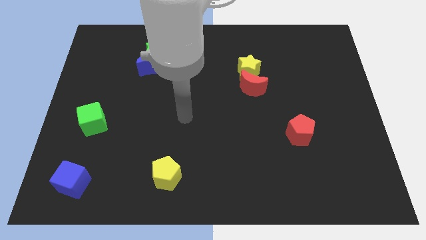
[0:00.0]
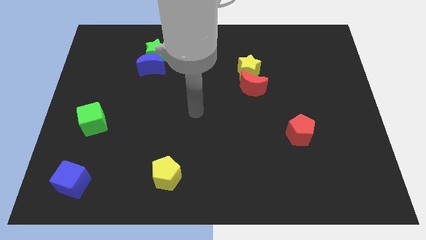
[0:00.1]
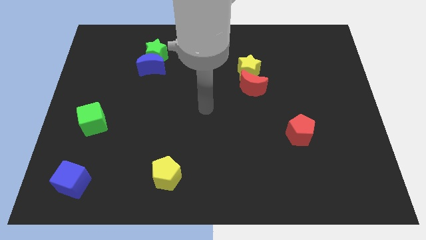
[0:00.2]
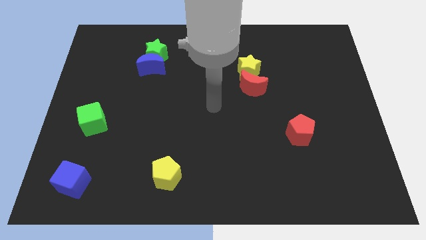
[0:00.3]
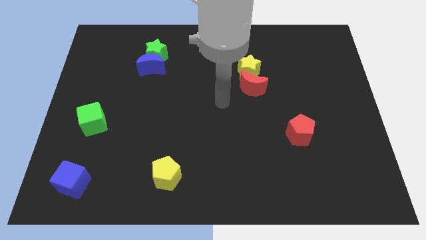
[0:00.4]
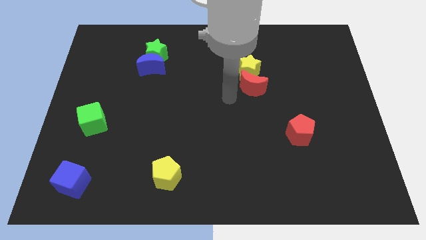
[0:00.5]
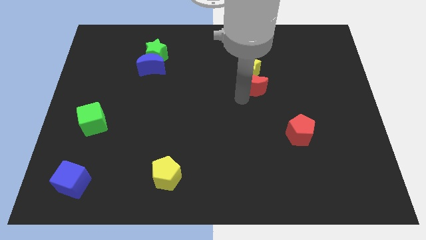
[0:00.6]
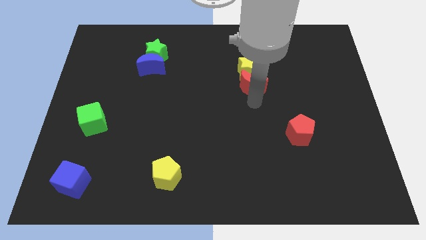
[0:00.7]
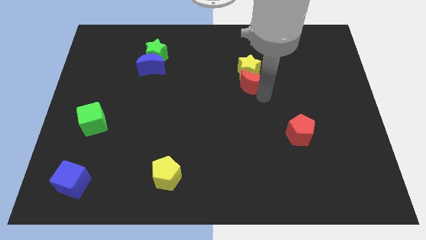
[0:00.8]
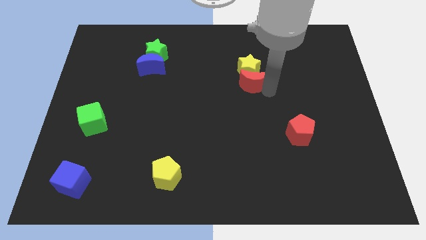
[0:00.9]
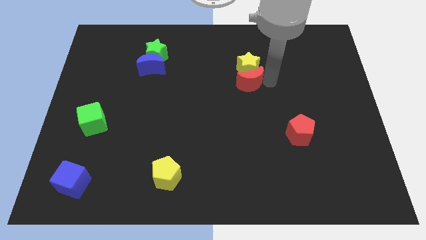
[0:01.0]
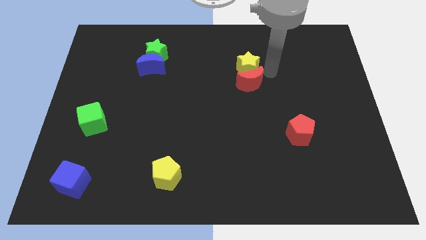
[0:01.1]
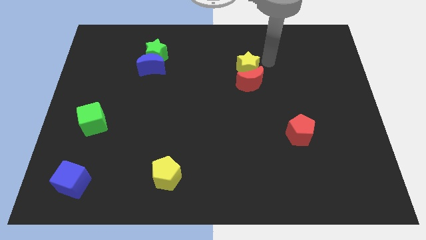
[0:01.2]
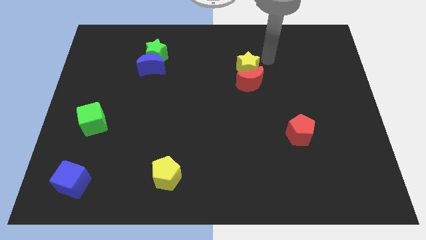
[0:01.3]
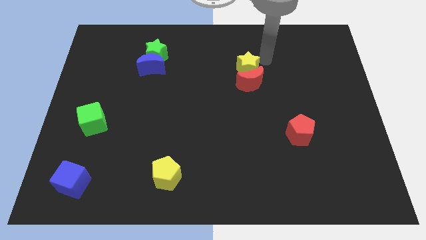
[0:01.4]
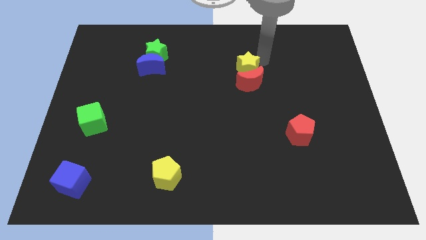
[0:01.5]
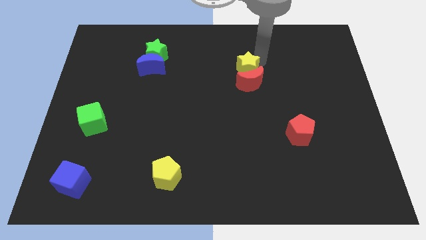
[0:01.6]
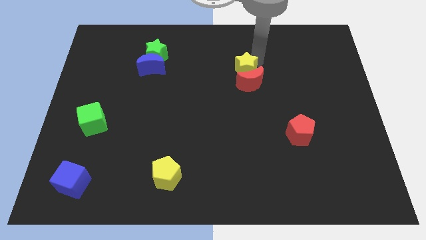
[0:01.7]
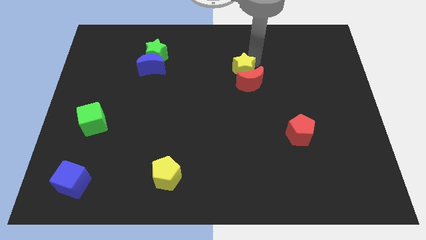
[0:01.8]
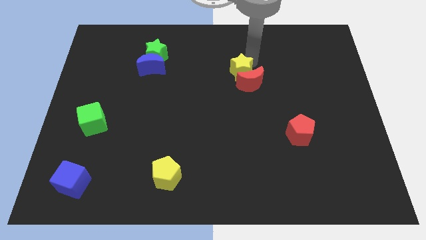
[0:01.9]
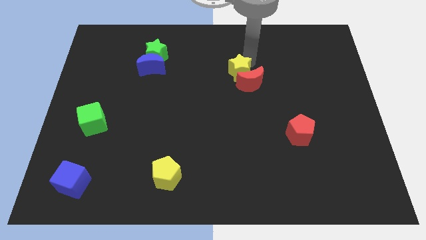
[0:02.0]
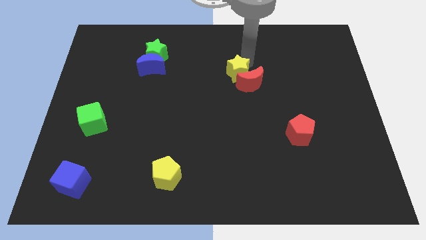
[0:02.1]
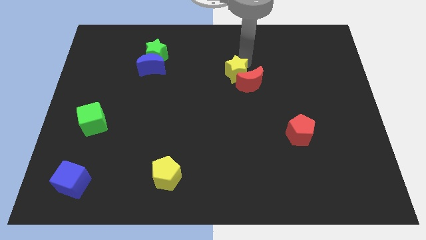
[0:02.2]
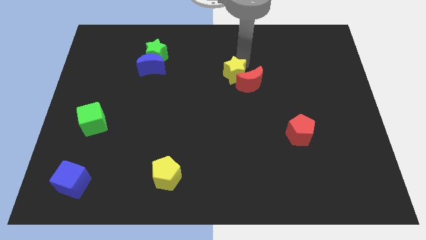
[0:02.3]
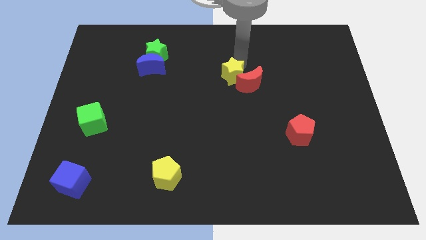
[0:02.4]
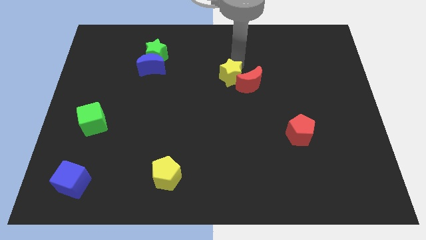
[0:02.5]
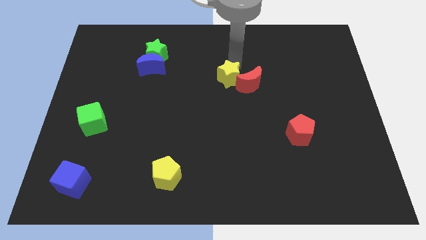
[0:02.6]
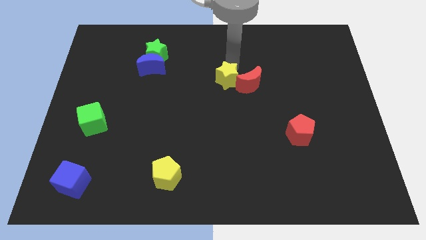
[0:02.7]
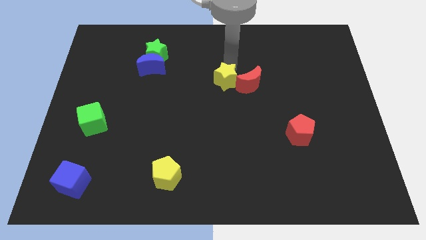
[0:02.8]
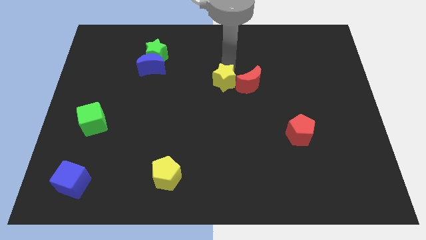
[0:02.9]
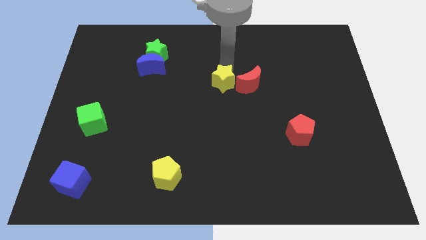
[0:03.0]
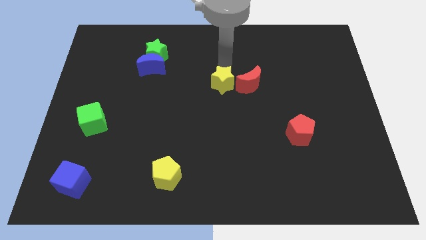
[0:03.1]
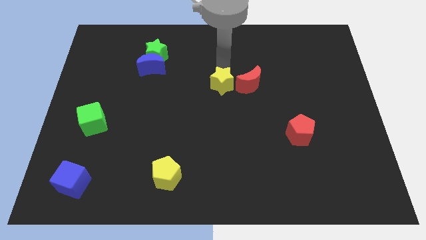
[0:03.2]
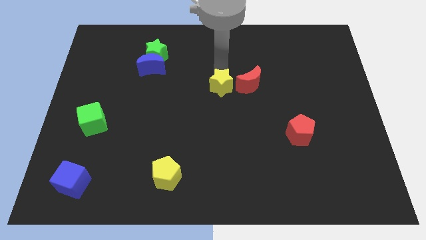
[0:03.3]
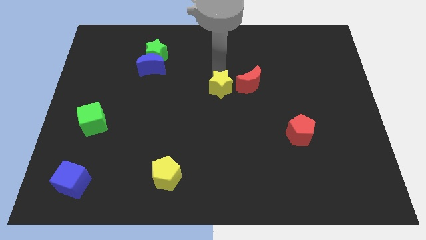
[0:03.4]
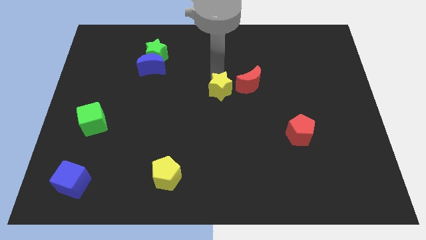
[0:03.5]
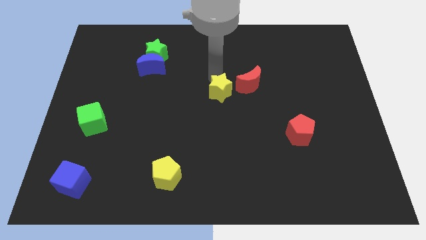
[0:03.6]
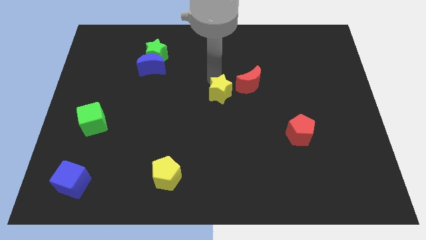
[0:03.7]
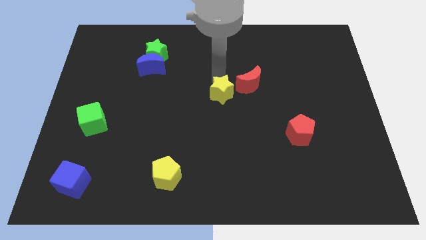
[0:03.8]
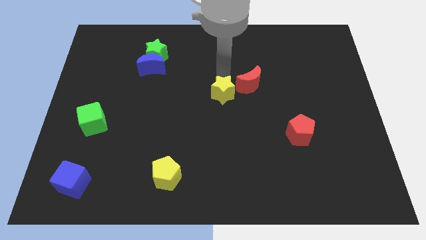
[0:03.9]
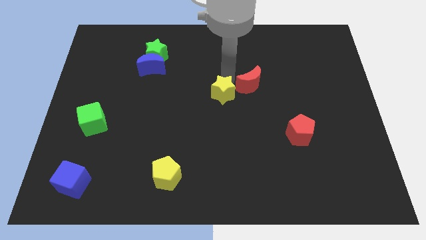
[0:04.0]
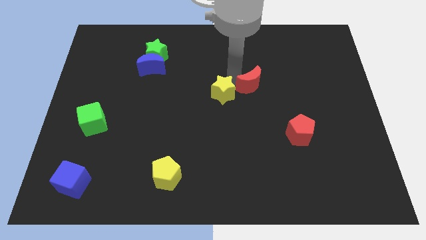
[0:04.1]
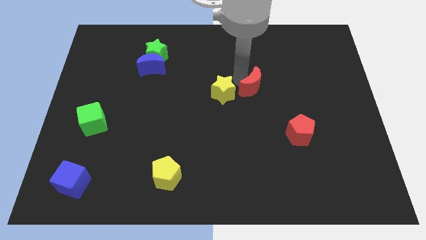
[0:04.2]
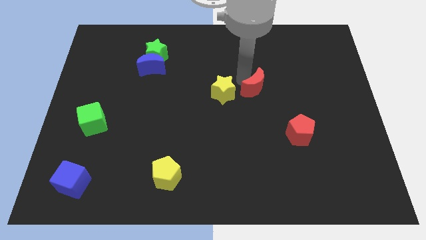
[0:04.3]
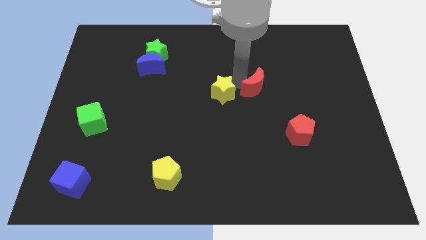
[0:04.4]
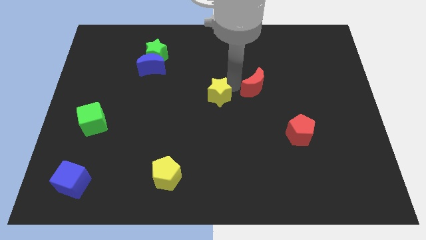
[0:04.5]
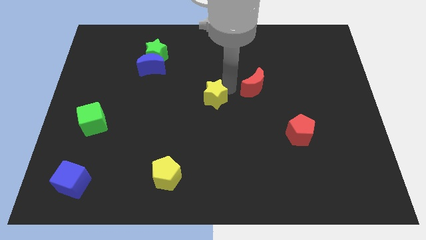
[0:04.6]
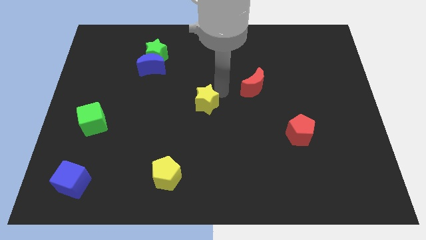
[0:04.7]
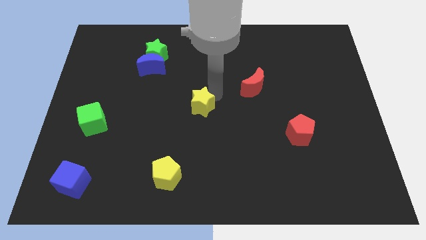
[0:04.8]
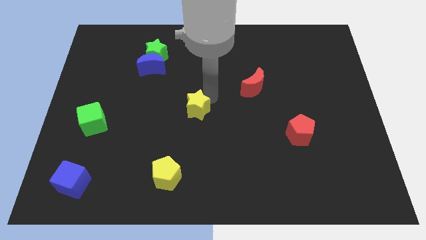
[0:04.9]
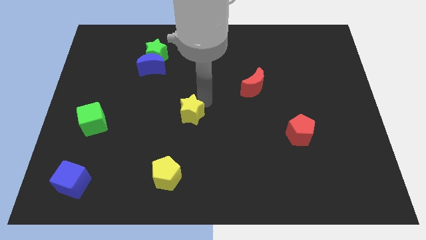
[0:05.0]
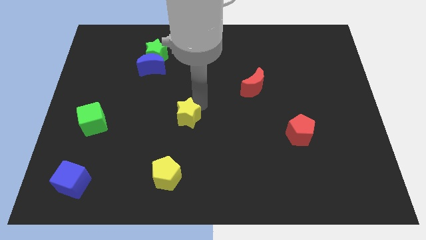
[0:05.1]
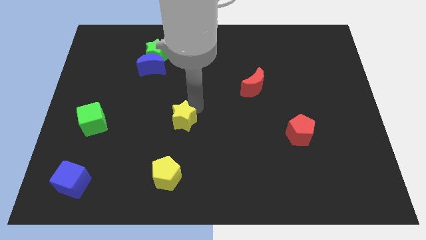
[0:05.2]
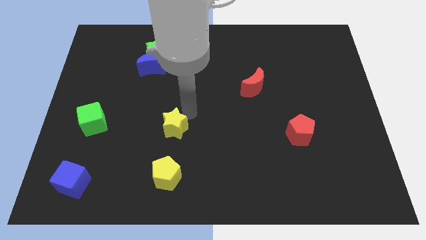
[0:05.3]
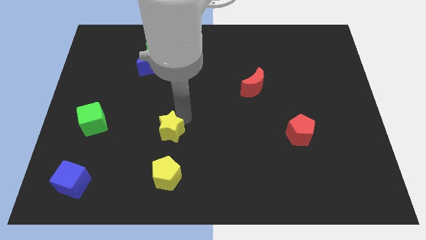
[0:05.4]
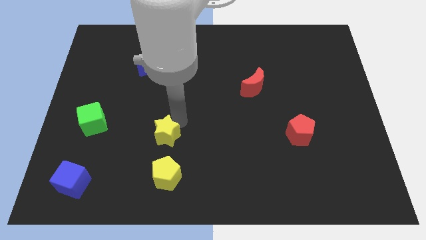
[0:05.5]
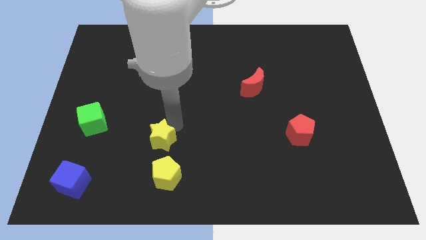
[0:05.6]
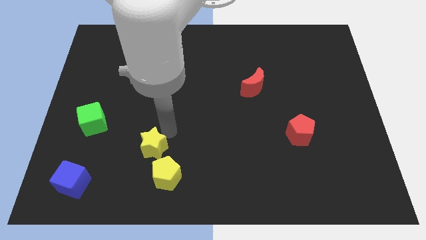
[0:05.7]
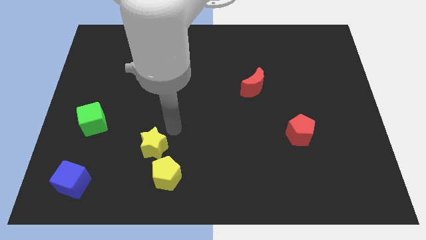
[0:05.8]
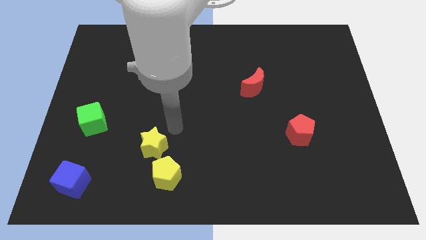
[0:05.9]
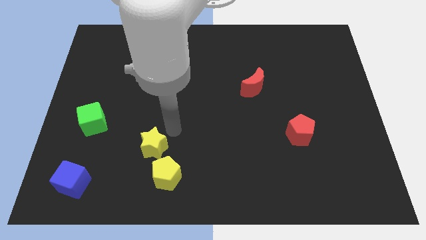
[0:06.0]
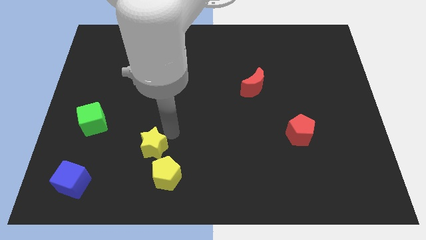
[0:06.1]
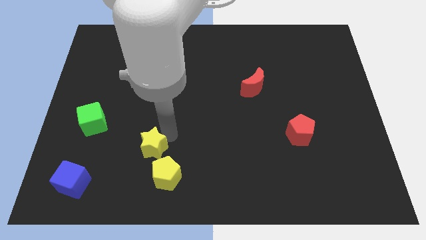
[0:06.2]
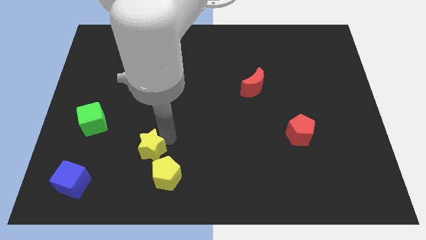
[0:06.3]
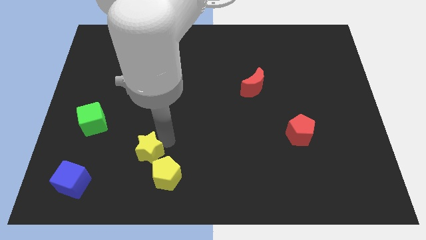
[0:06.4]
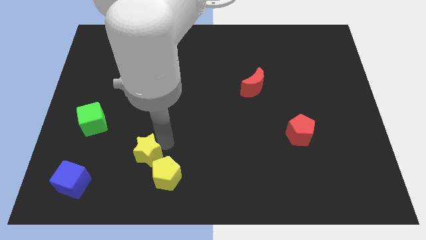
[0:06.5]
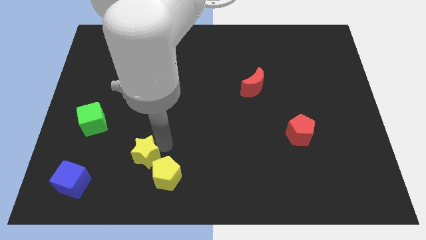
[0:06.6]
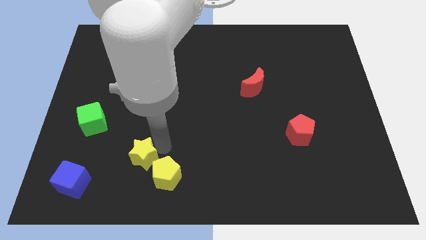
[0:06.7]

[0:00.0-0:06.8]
push the yellow star left of the yellow pentagon

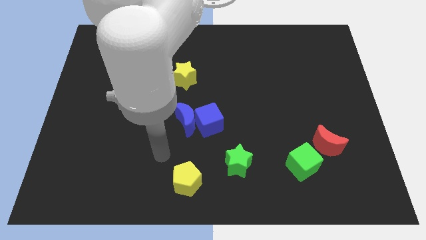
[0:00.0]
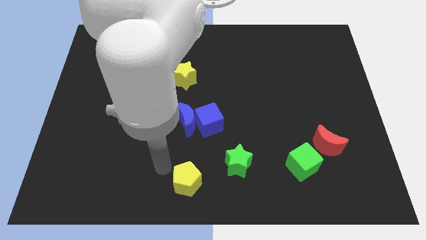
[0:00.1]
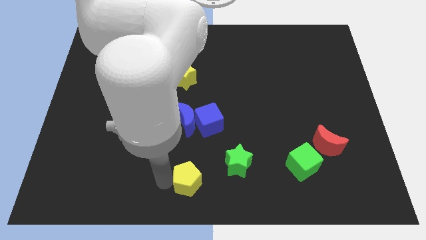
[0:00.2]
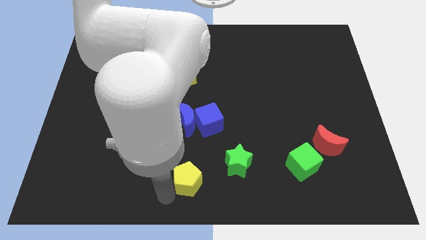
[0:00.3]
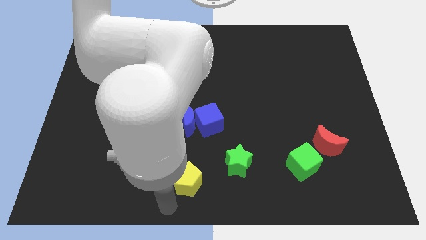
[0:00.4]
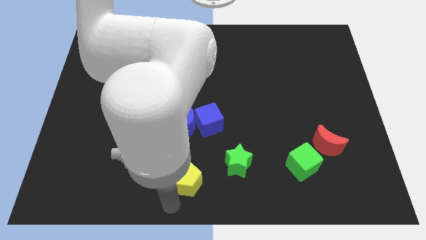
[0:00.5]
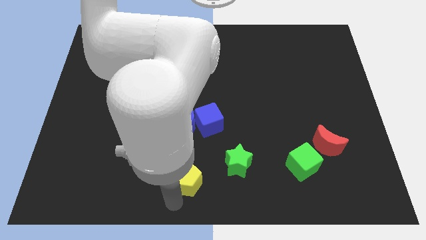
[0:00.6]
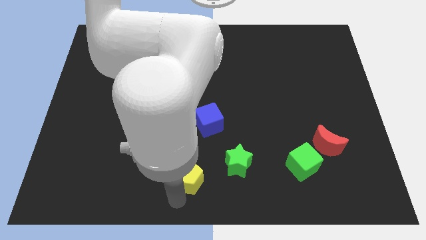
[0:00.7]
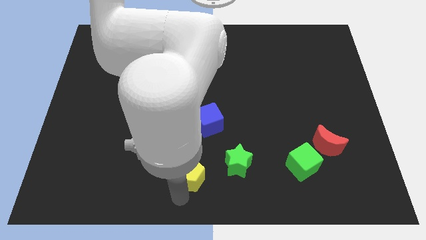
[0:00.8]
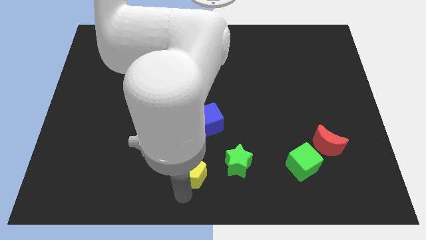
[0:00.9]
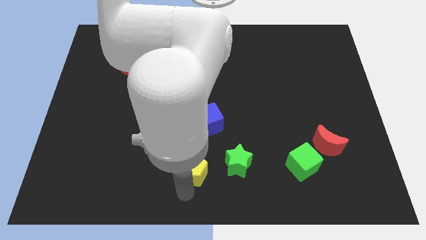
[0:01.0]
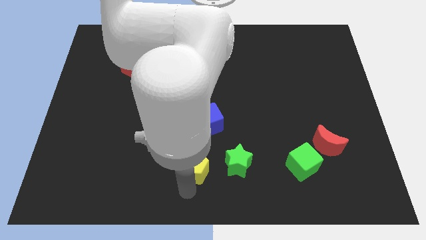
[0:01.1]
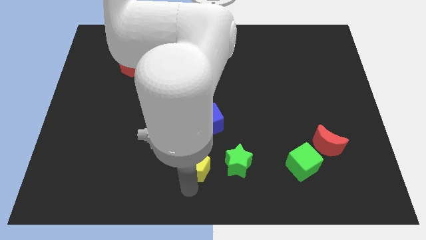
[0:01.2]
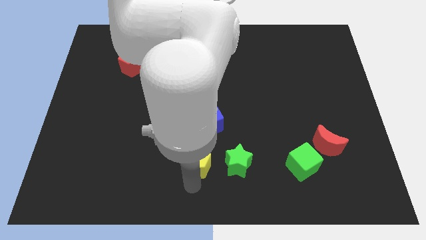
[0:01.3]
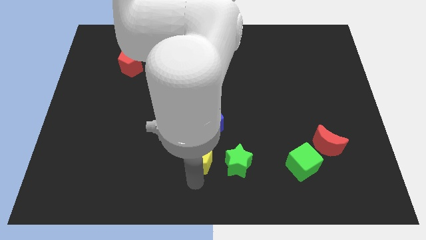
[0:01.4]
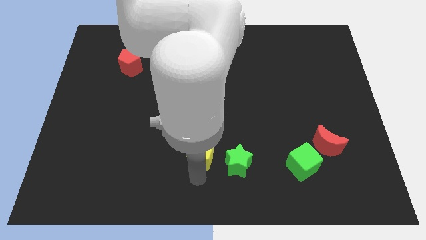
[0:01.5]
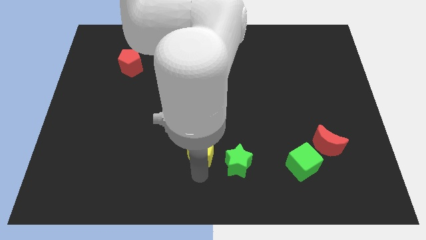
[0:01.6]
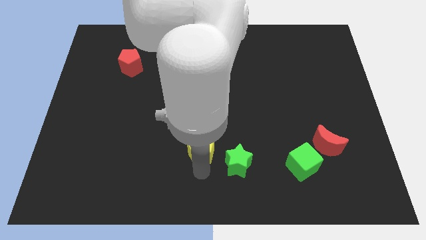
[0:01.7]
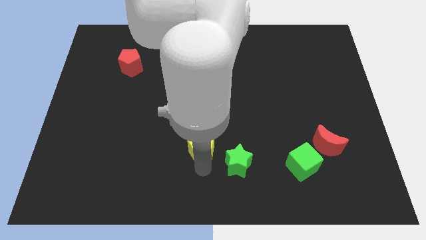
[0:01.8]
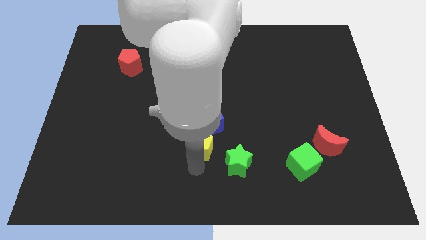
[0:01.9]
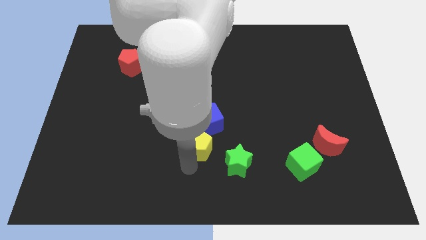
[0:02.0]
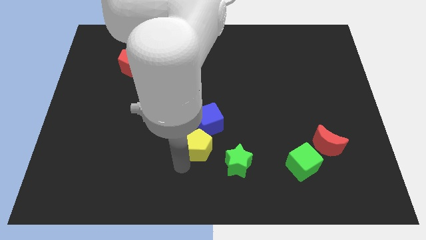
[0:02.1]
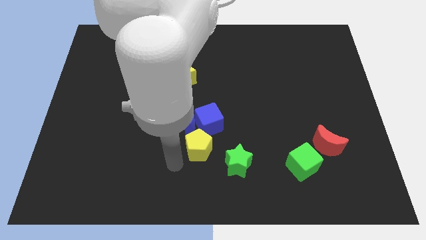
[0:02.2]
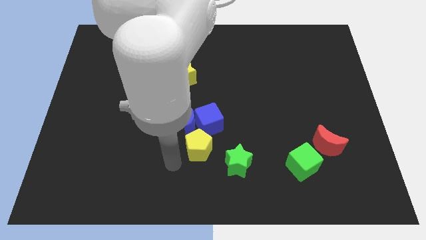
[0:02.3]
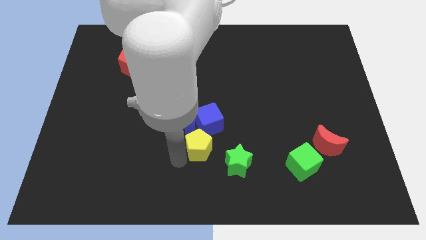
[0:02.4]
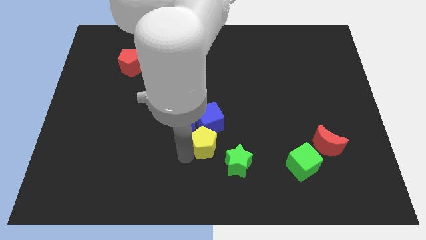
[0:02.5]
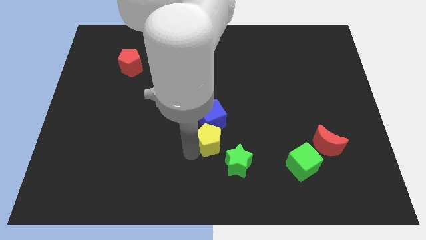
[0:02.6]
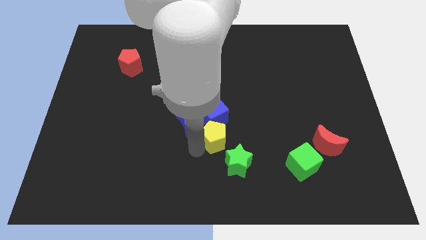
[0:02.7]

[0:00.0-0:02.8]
slide the yellow pentagon just right of the blue moon
